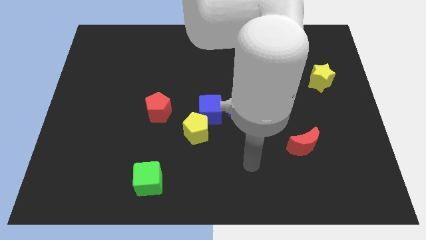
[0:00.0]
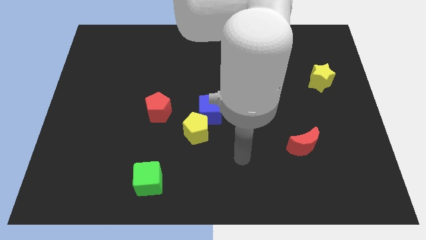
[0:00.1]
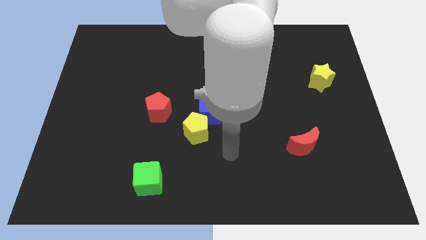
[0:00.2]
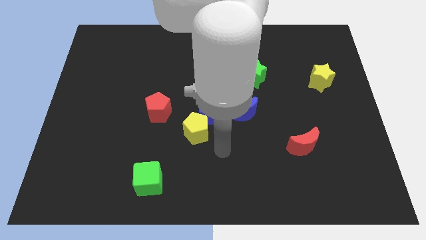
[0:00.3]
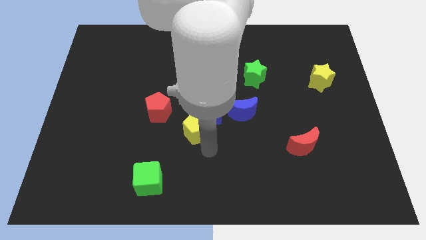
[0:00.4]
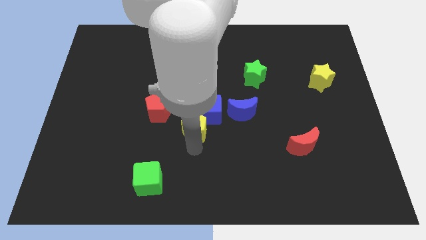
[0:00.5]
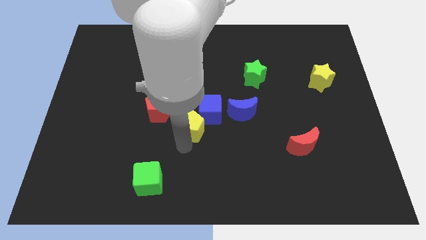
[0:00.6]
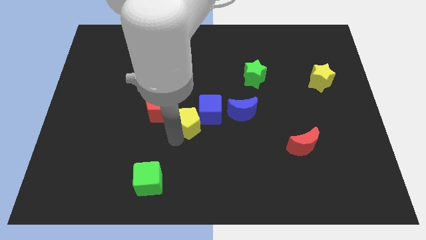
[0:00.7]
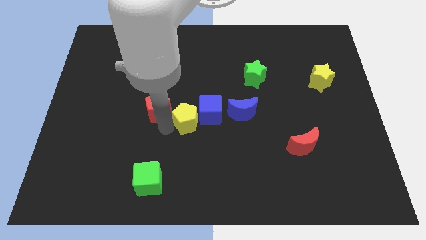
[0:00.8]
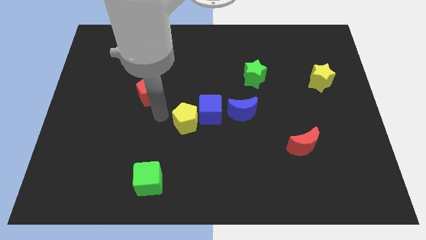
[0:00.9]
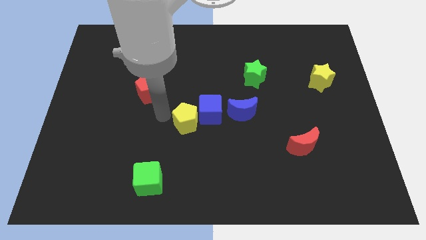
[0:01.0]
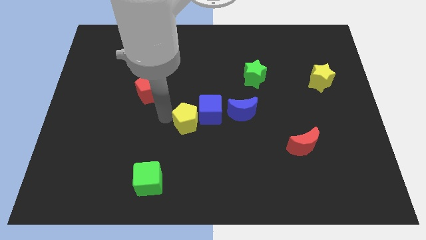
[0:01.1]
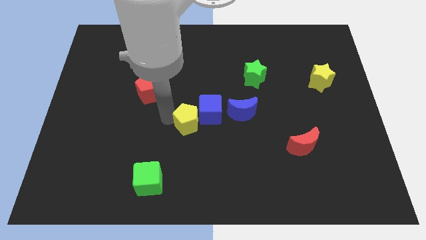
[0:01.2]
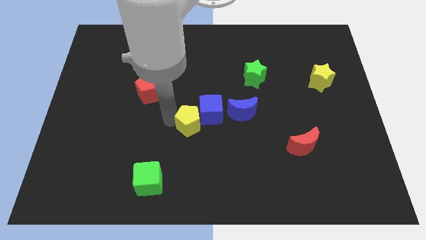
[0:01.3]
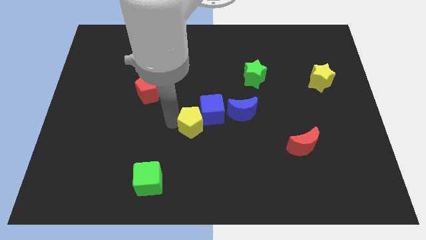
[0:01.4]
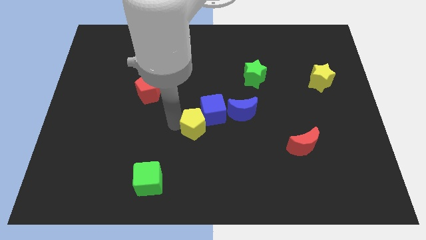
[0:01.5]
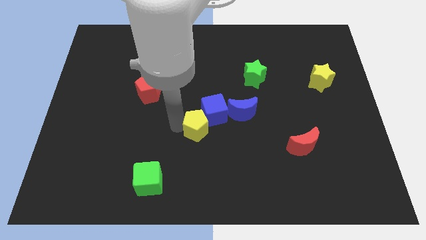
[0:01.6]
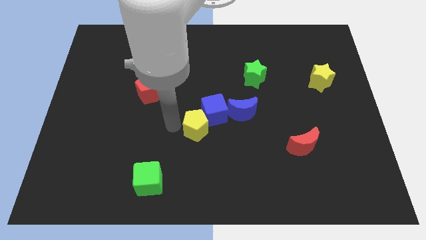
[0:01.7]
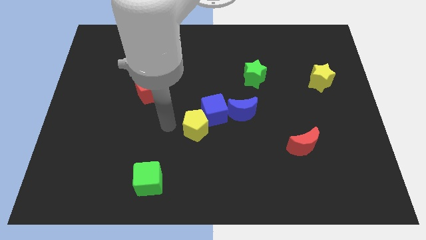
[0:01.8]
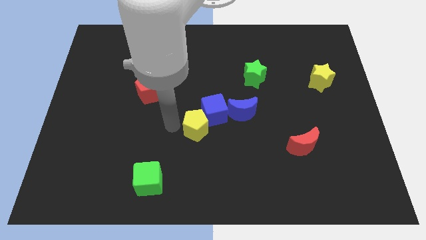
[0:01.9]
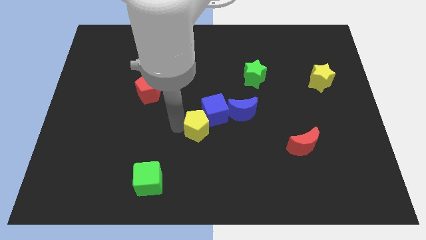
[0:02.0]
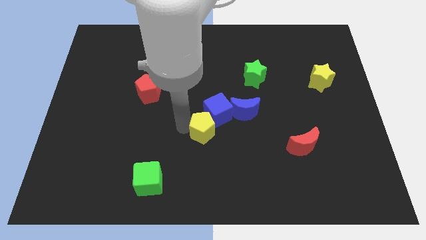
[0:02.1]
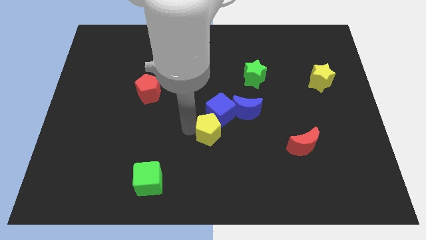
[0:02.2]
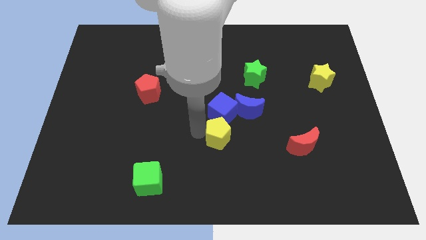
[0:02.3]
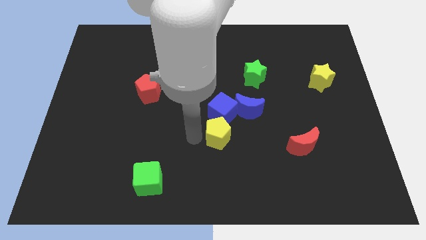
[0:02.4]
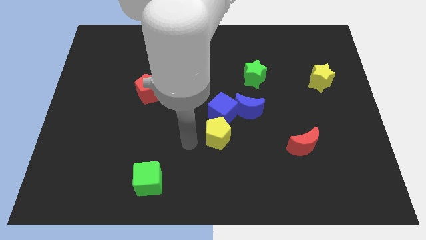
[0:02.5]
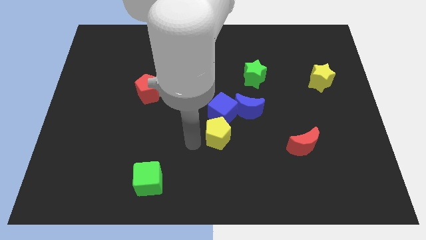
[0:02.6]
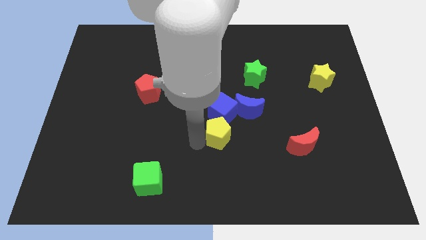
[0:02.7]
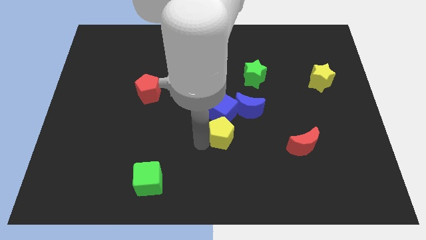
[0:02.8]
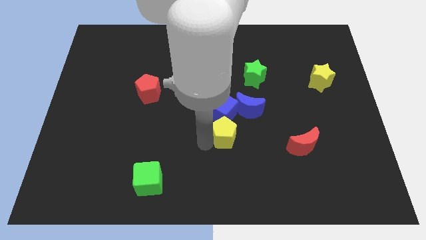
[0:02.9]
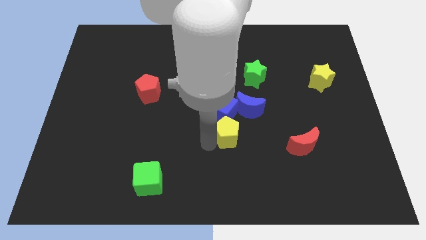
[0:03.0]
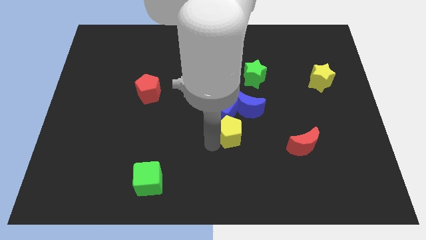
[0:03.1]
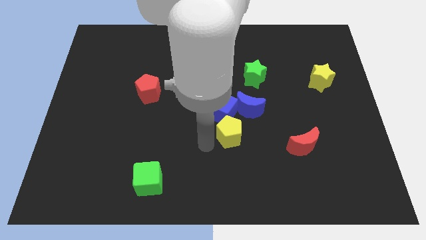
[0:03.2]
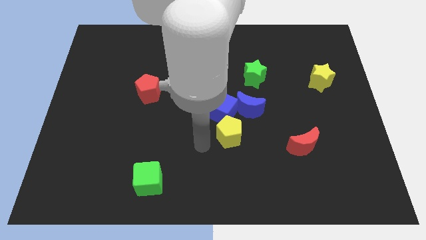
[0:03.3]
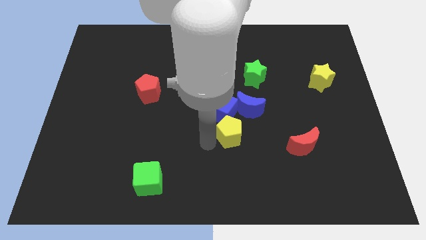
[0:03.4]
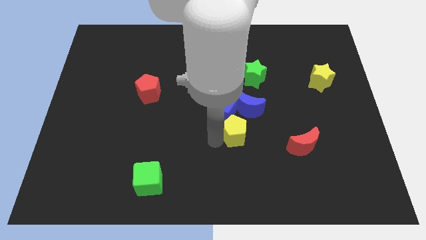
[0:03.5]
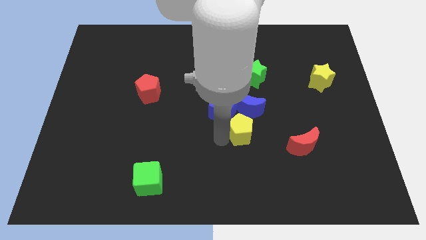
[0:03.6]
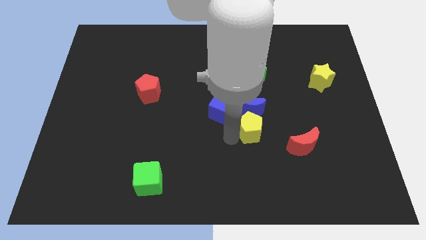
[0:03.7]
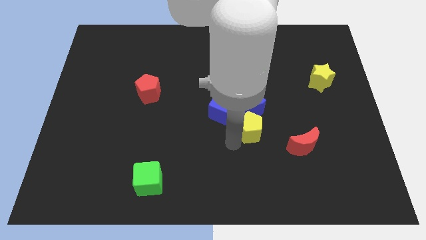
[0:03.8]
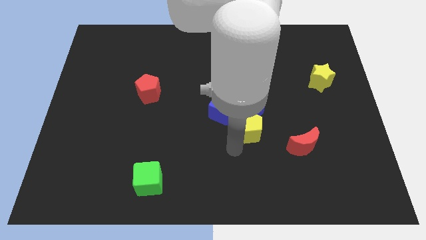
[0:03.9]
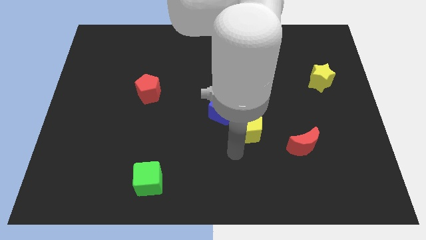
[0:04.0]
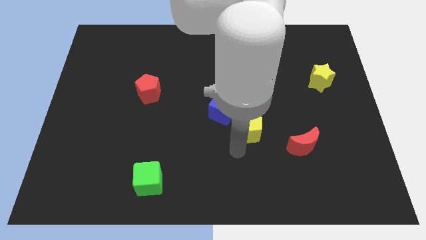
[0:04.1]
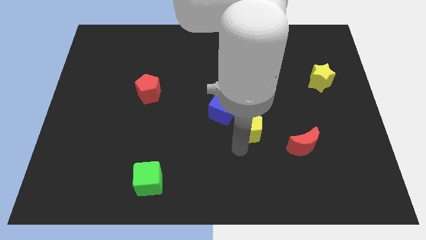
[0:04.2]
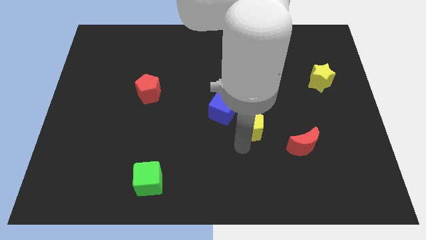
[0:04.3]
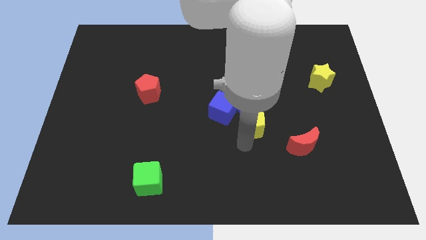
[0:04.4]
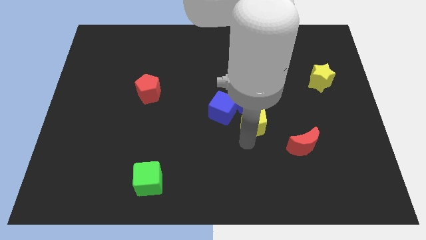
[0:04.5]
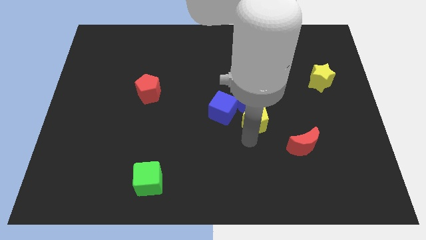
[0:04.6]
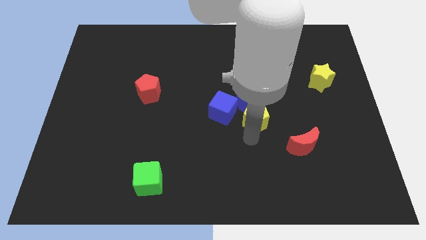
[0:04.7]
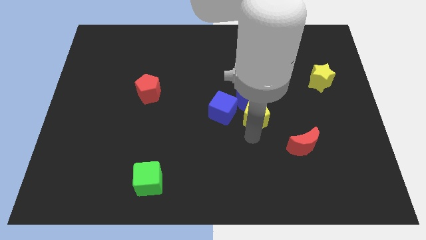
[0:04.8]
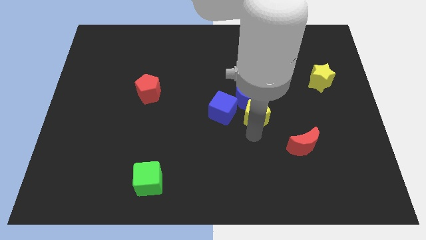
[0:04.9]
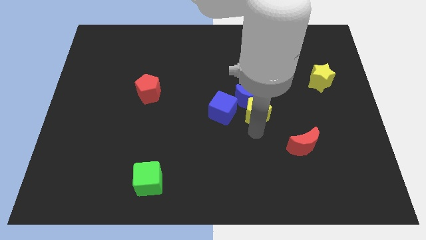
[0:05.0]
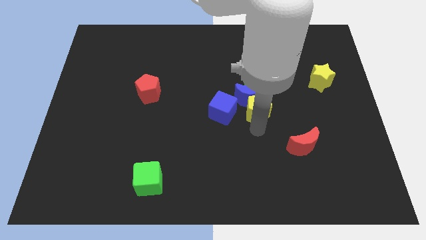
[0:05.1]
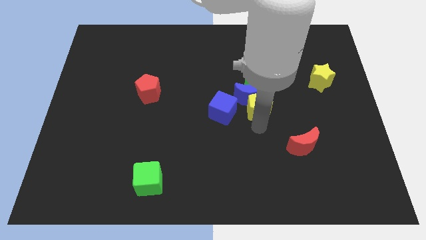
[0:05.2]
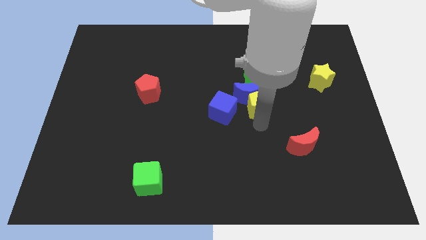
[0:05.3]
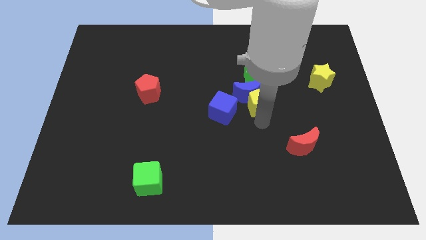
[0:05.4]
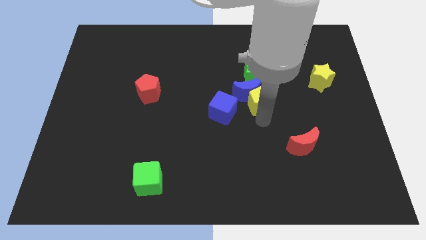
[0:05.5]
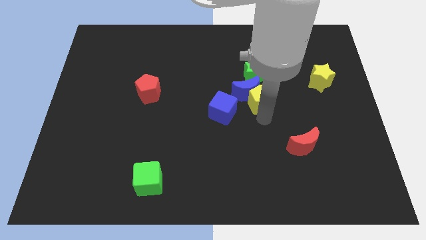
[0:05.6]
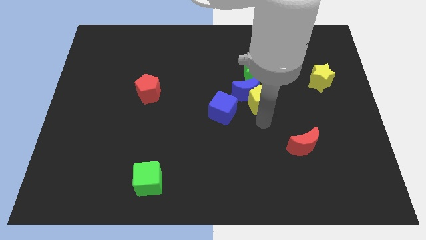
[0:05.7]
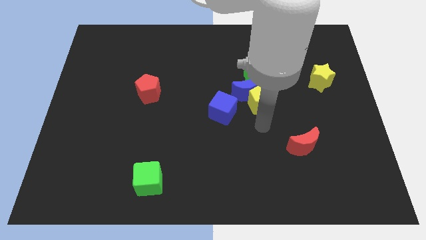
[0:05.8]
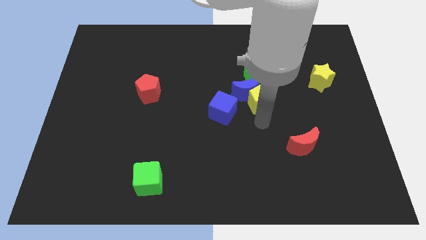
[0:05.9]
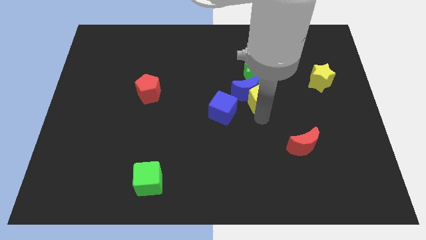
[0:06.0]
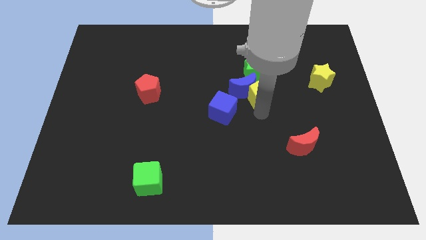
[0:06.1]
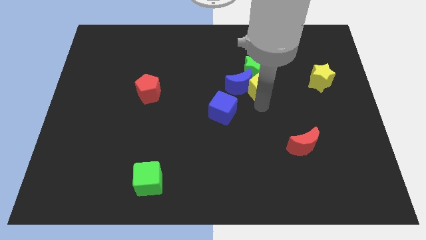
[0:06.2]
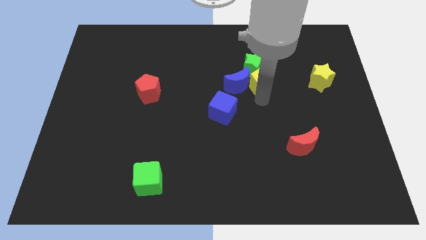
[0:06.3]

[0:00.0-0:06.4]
put the yellow pentagon close to the green star

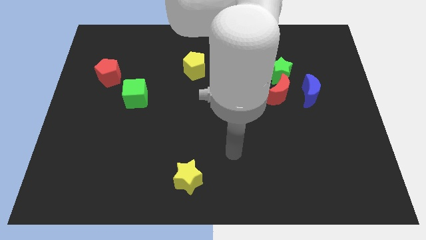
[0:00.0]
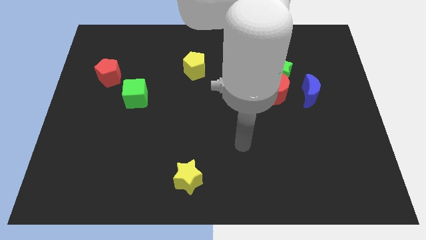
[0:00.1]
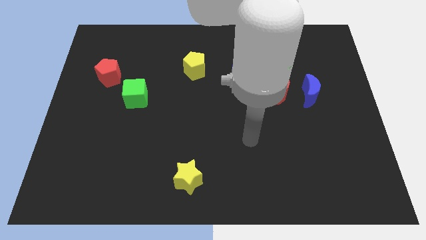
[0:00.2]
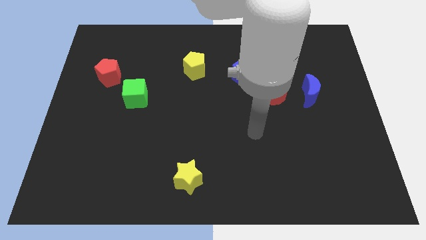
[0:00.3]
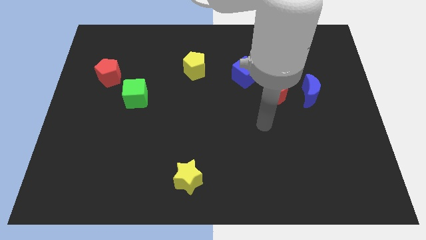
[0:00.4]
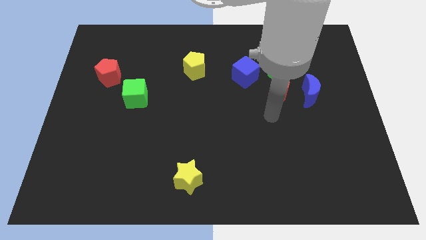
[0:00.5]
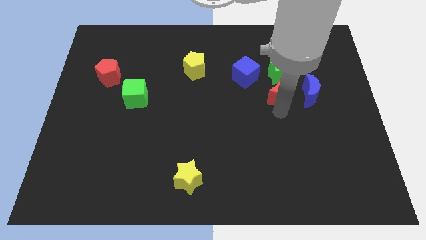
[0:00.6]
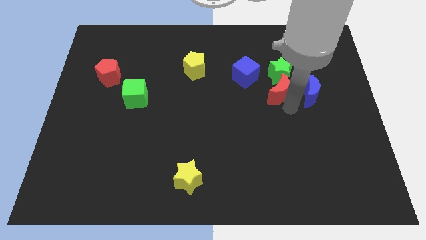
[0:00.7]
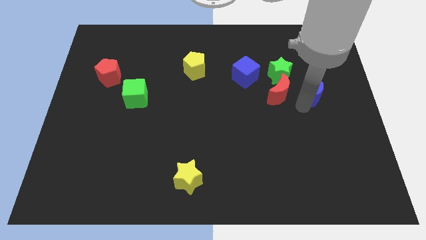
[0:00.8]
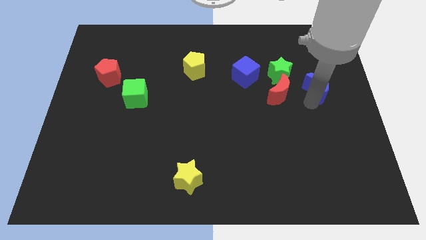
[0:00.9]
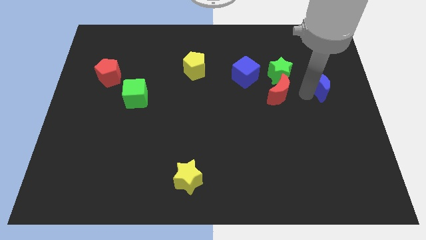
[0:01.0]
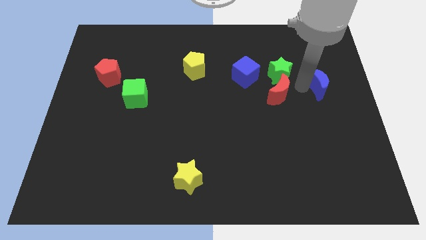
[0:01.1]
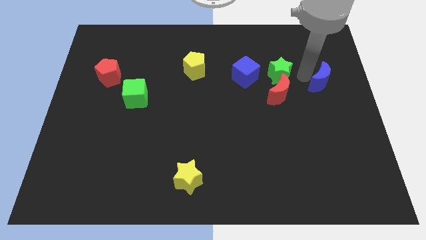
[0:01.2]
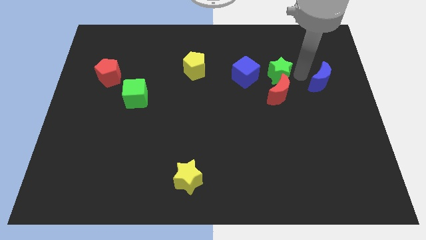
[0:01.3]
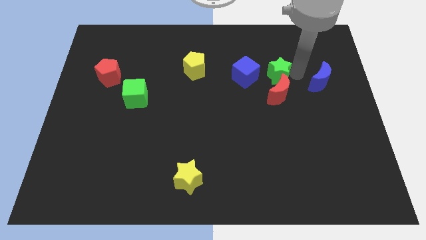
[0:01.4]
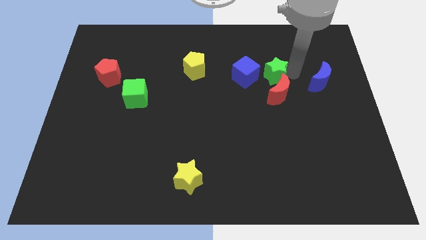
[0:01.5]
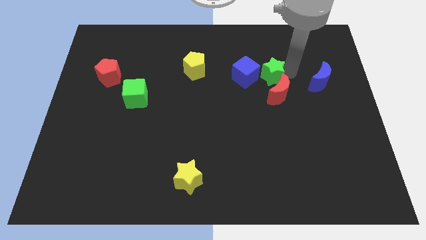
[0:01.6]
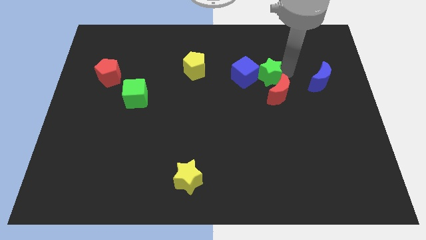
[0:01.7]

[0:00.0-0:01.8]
put the green star next to the blue cube
